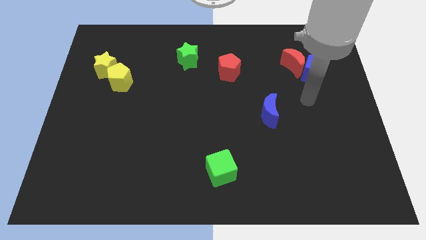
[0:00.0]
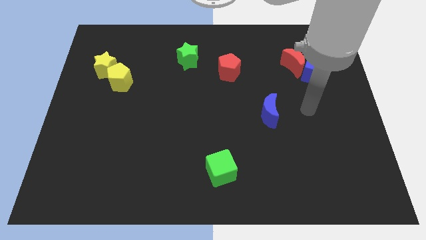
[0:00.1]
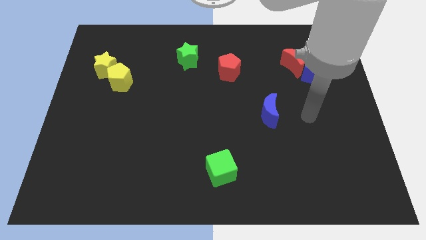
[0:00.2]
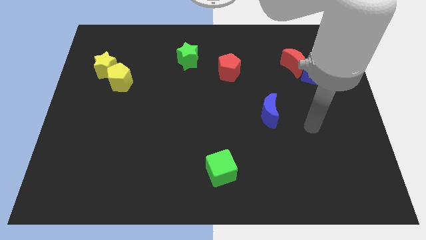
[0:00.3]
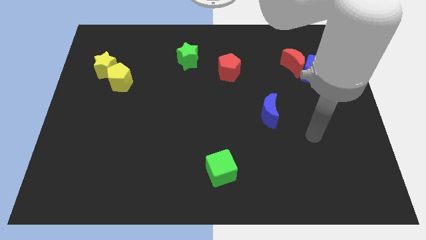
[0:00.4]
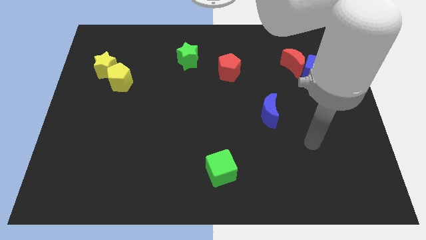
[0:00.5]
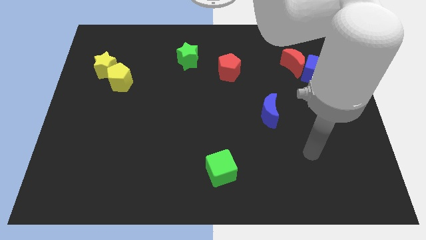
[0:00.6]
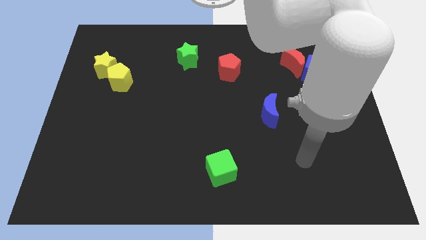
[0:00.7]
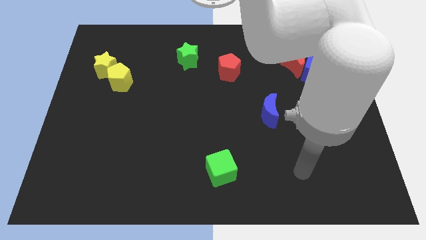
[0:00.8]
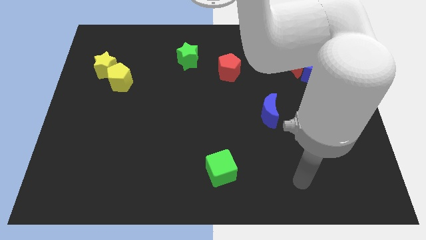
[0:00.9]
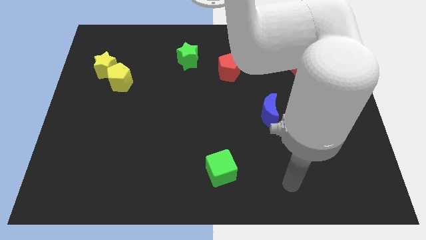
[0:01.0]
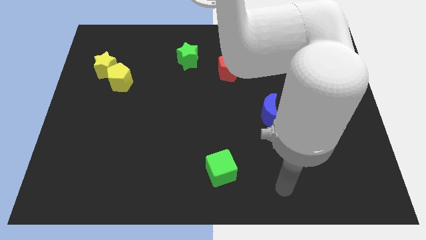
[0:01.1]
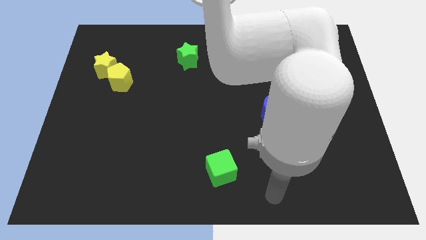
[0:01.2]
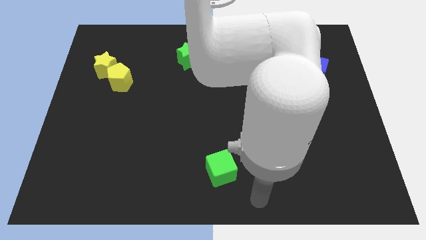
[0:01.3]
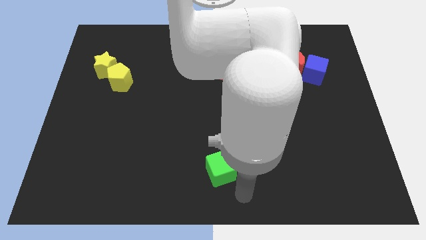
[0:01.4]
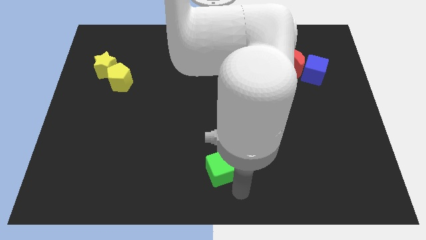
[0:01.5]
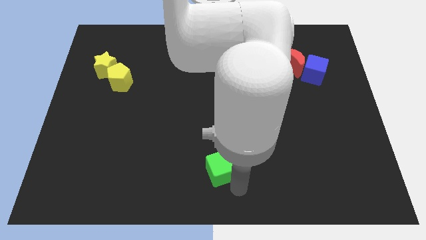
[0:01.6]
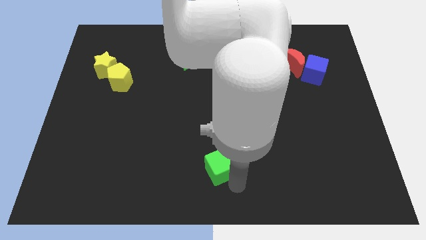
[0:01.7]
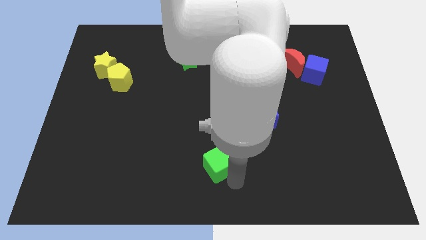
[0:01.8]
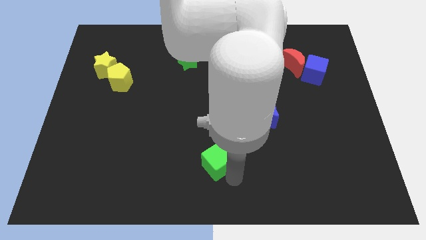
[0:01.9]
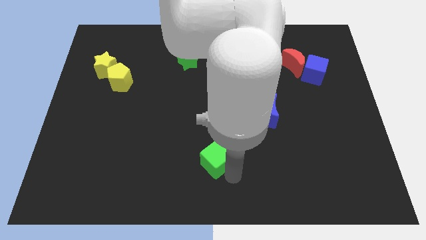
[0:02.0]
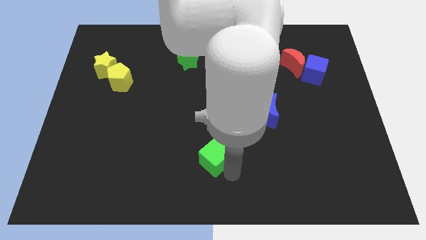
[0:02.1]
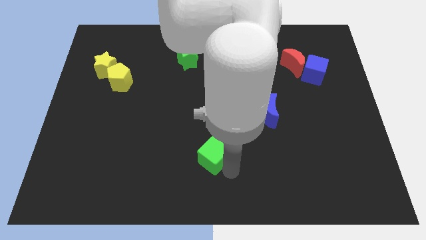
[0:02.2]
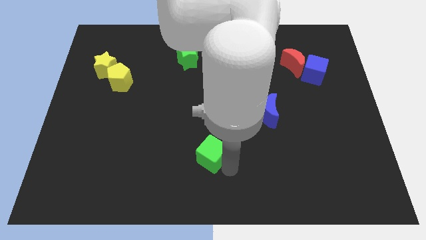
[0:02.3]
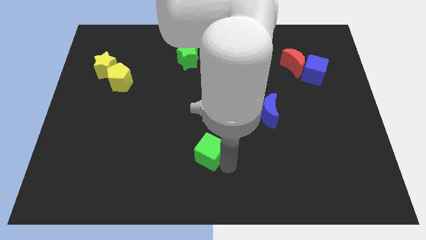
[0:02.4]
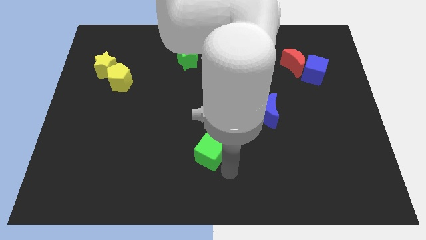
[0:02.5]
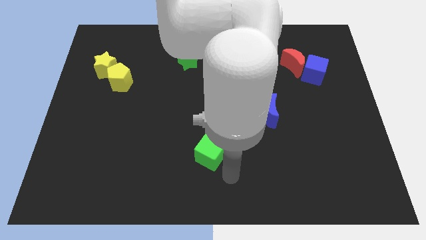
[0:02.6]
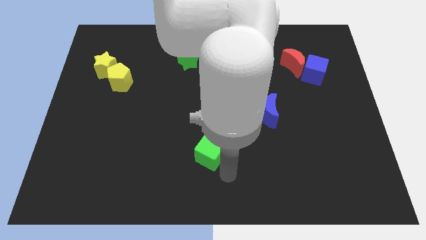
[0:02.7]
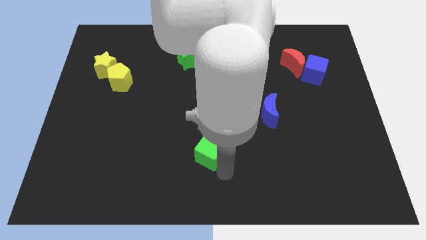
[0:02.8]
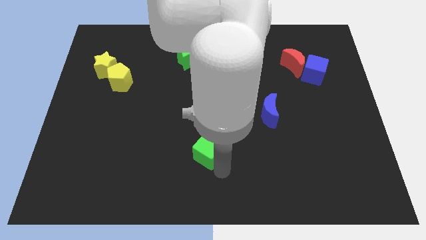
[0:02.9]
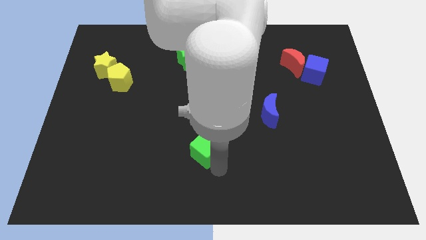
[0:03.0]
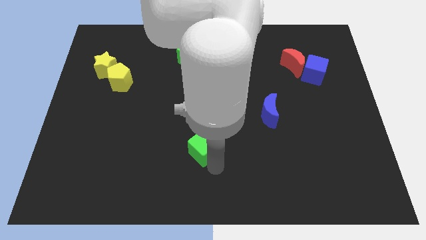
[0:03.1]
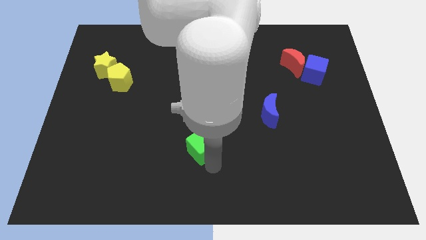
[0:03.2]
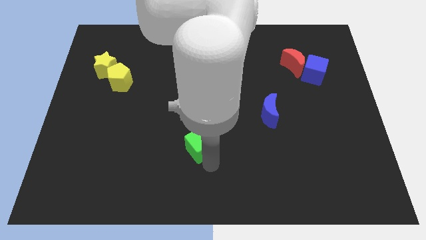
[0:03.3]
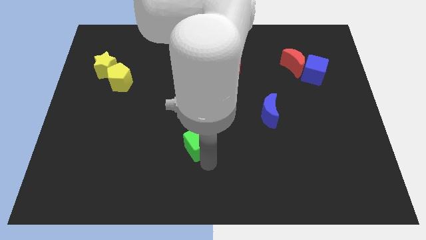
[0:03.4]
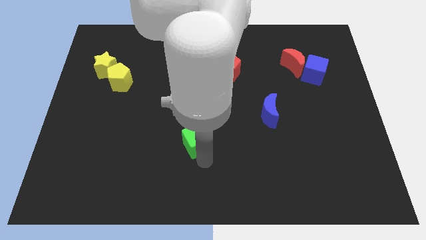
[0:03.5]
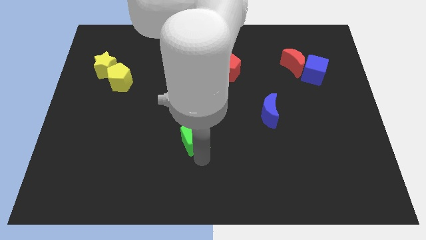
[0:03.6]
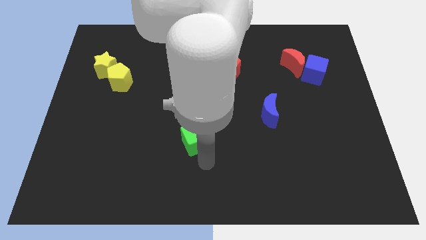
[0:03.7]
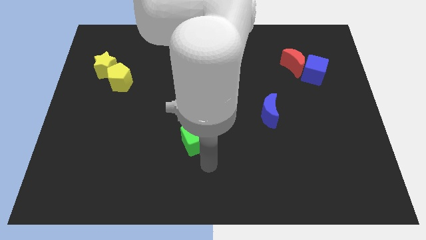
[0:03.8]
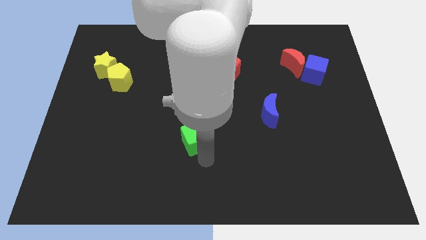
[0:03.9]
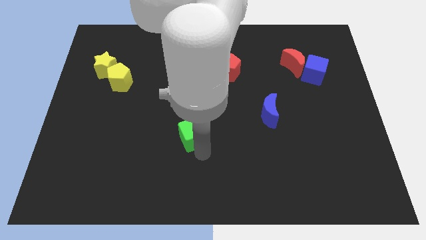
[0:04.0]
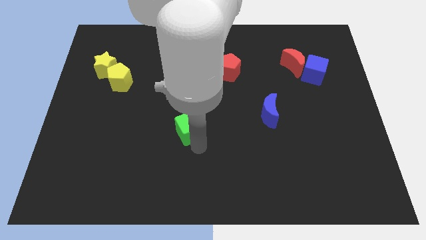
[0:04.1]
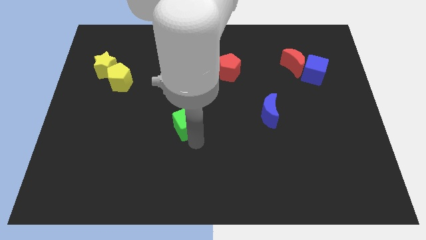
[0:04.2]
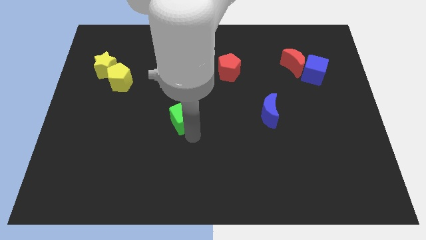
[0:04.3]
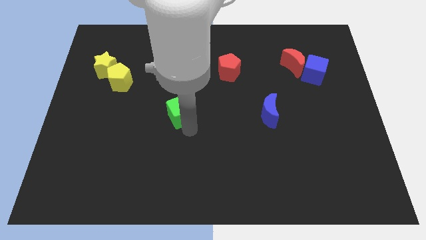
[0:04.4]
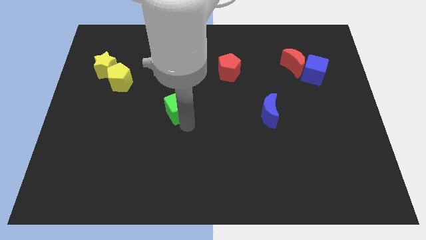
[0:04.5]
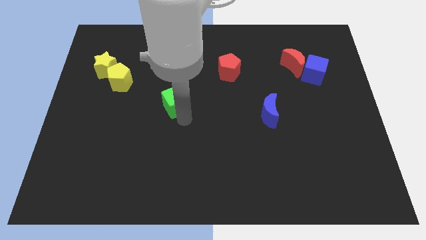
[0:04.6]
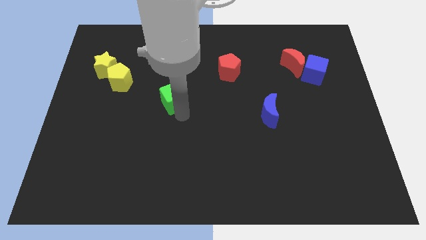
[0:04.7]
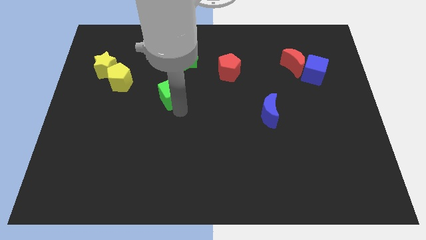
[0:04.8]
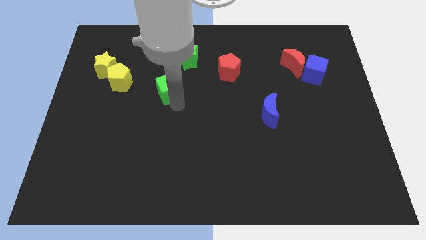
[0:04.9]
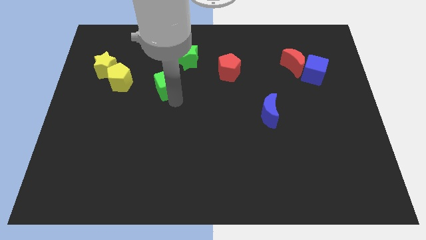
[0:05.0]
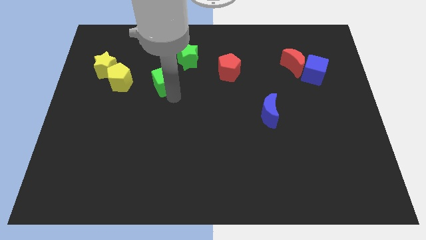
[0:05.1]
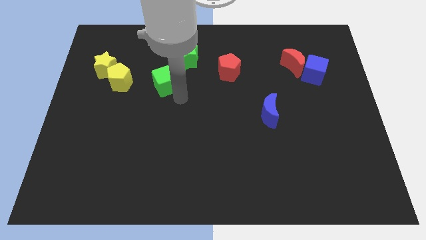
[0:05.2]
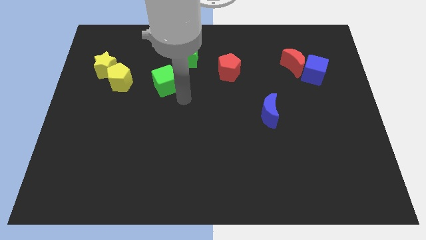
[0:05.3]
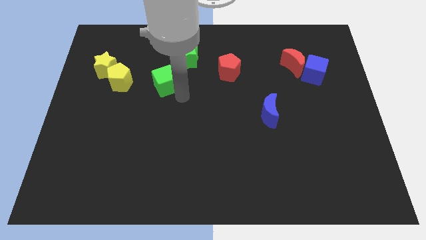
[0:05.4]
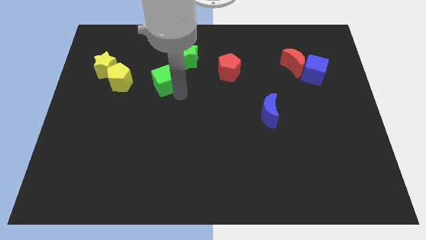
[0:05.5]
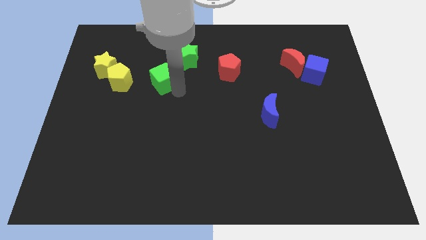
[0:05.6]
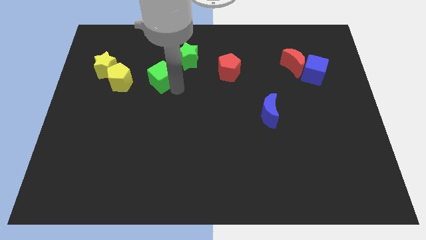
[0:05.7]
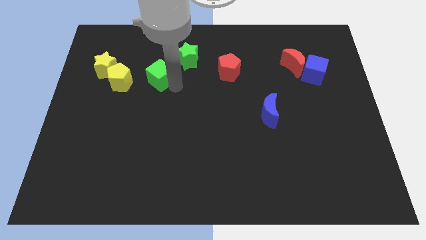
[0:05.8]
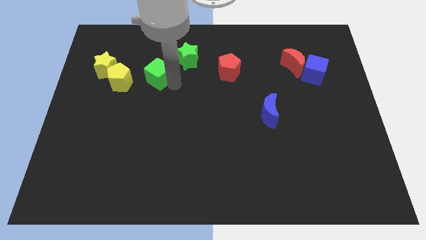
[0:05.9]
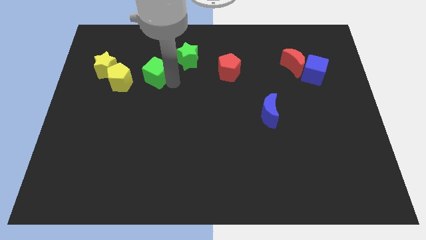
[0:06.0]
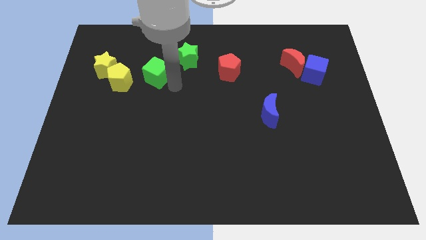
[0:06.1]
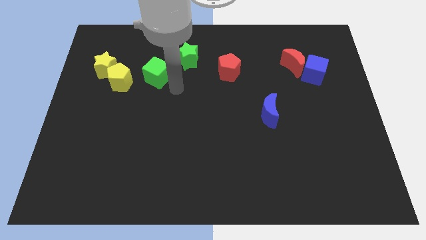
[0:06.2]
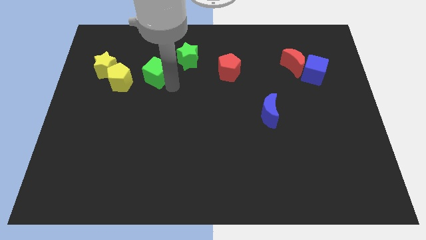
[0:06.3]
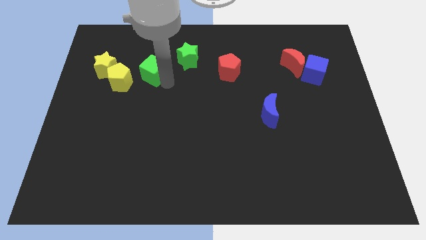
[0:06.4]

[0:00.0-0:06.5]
push the green cube to the top right of the yellow pentagon
